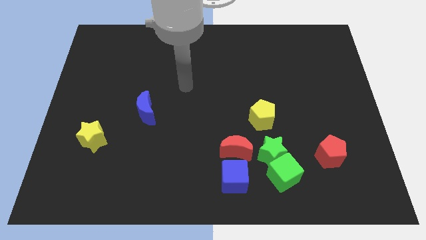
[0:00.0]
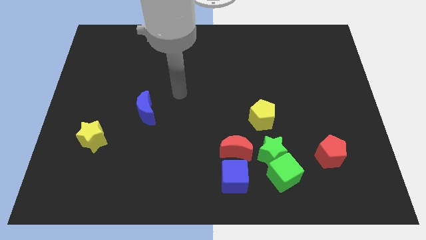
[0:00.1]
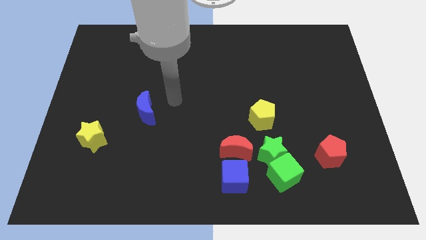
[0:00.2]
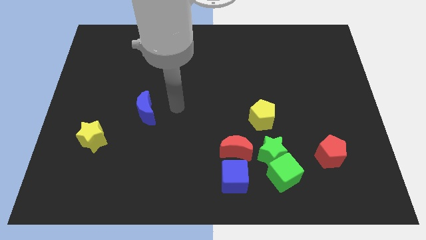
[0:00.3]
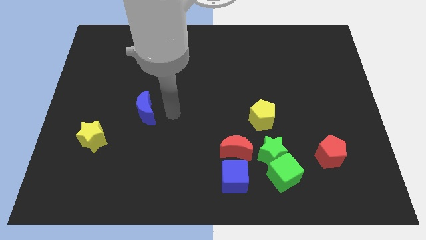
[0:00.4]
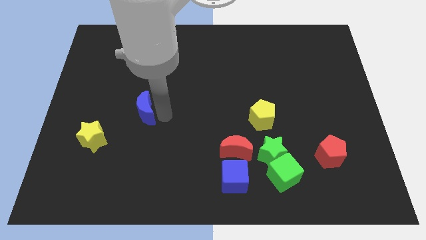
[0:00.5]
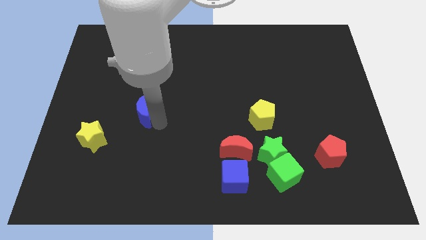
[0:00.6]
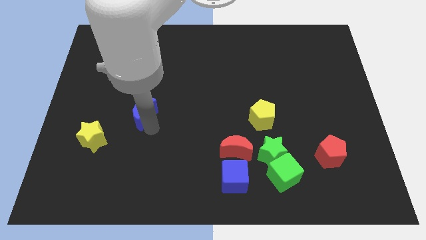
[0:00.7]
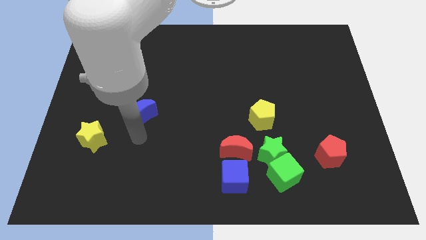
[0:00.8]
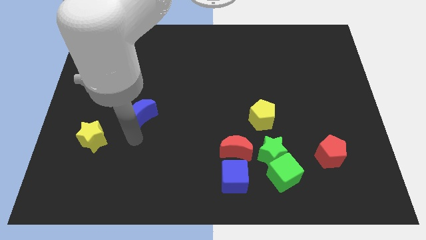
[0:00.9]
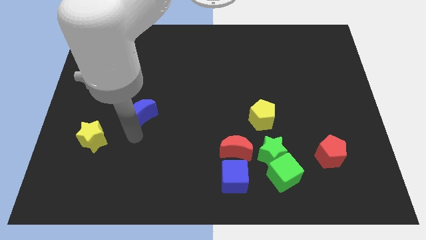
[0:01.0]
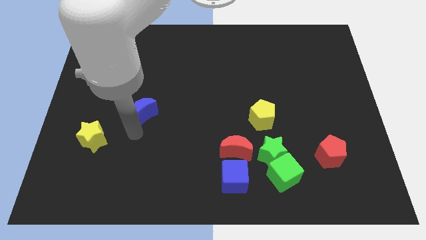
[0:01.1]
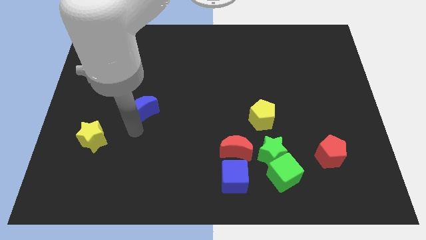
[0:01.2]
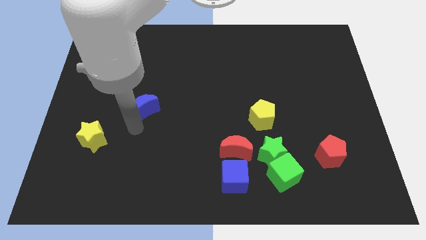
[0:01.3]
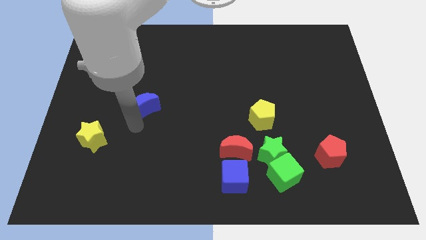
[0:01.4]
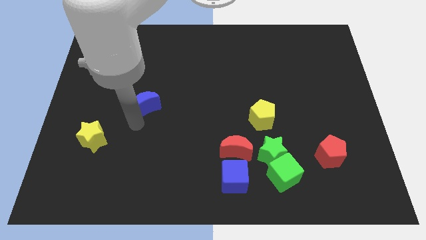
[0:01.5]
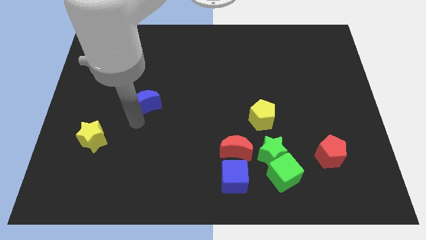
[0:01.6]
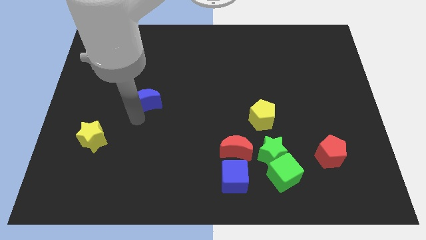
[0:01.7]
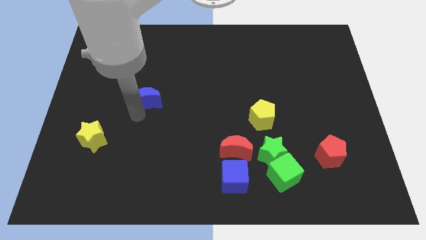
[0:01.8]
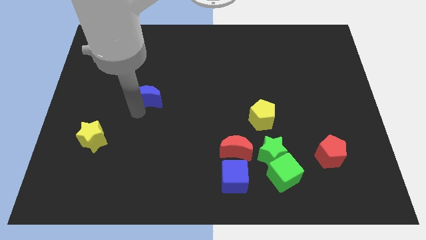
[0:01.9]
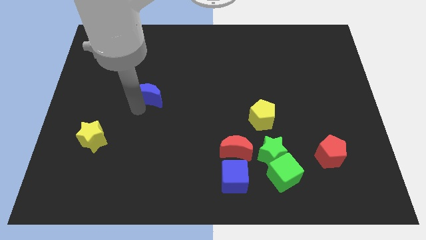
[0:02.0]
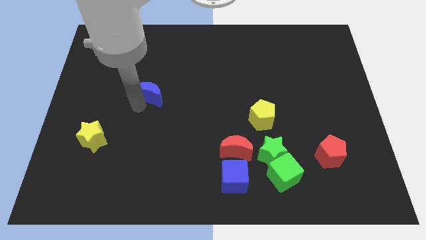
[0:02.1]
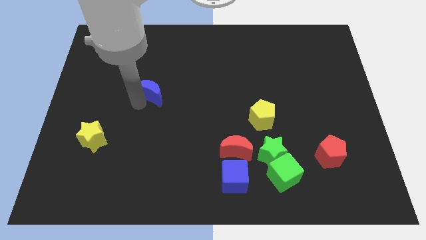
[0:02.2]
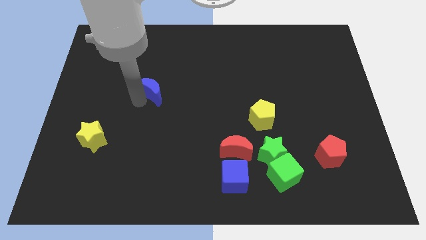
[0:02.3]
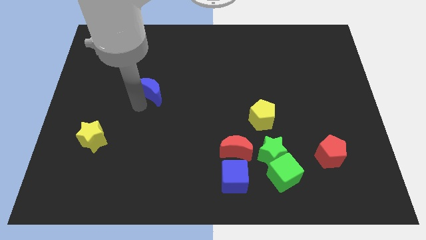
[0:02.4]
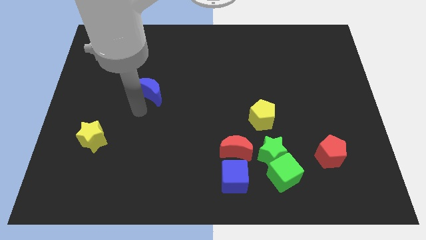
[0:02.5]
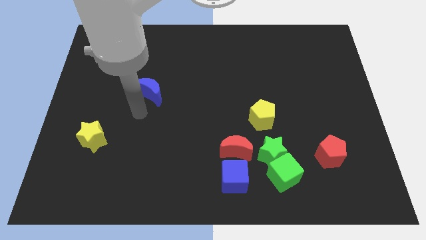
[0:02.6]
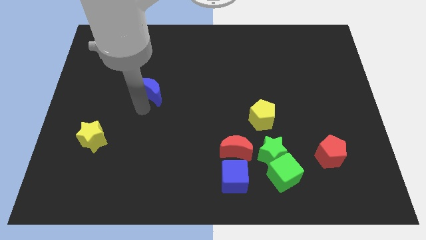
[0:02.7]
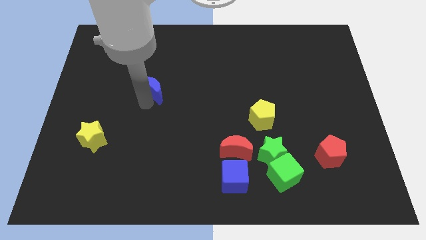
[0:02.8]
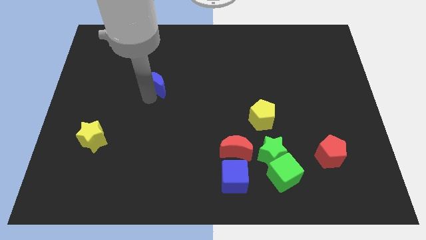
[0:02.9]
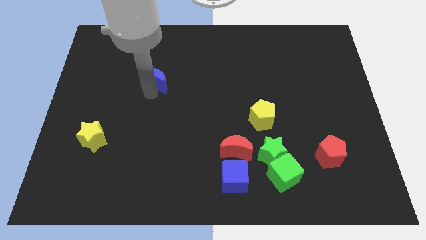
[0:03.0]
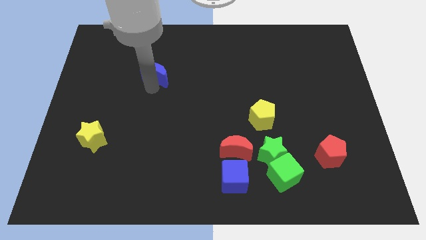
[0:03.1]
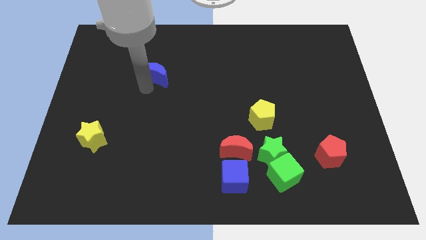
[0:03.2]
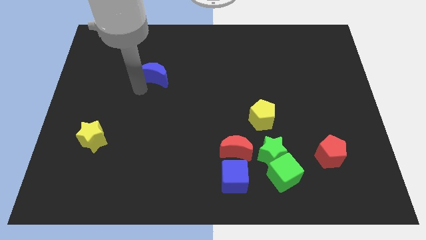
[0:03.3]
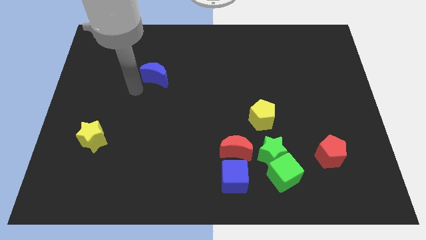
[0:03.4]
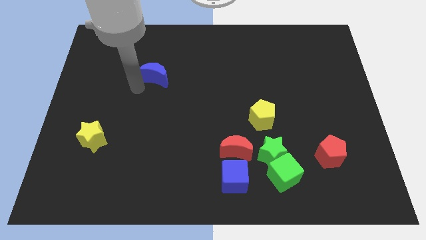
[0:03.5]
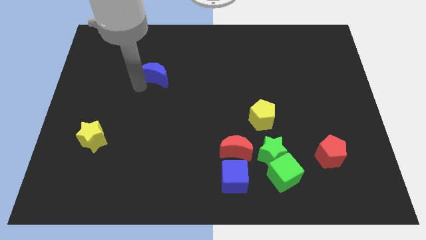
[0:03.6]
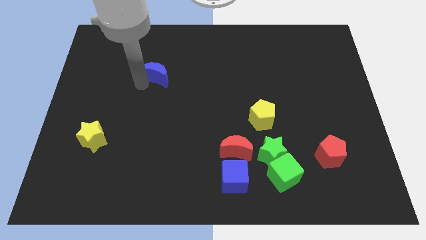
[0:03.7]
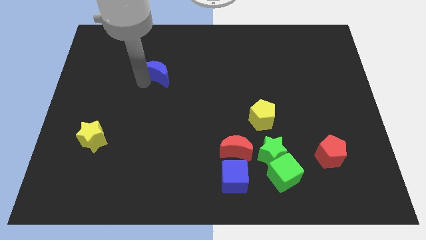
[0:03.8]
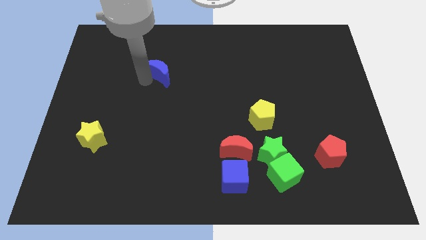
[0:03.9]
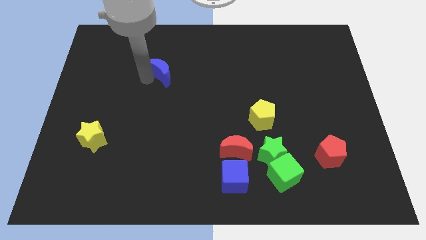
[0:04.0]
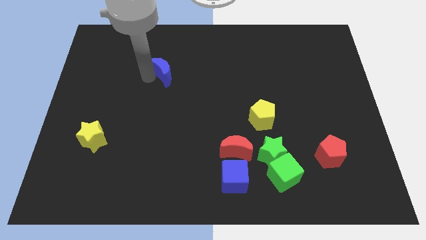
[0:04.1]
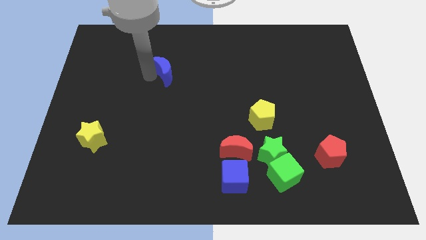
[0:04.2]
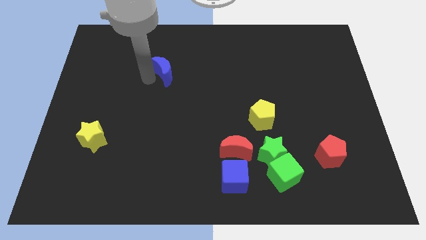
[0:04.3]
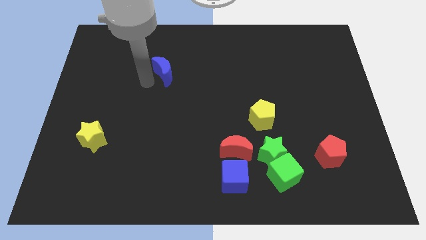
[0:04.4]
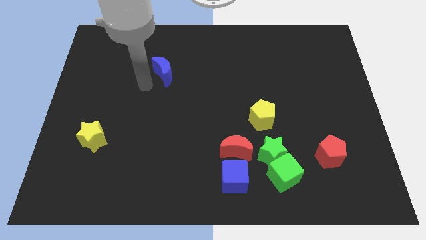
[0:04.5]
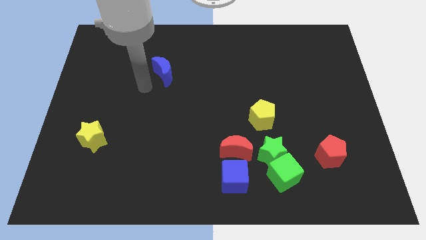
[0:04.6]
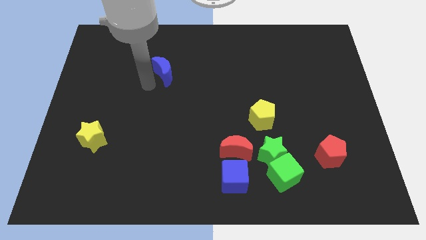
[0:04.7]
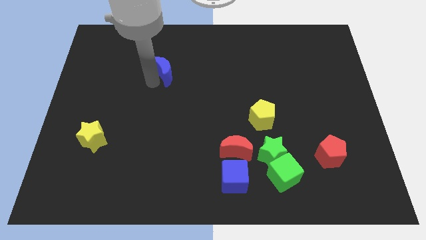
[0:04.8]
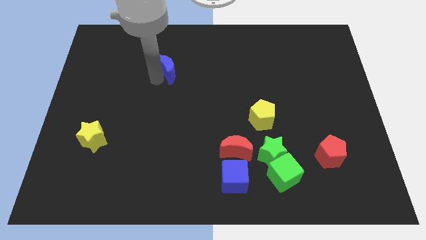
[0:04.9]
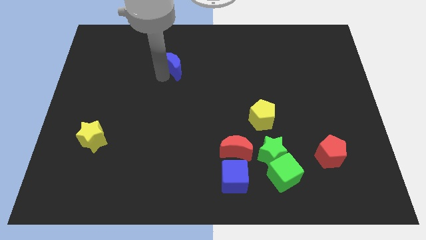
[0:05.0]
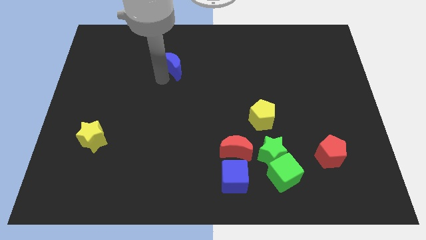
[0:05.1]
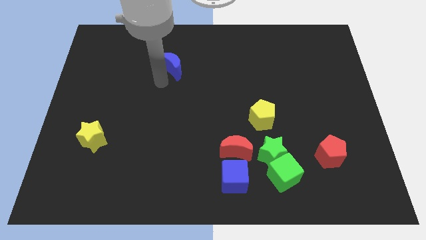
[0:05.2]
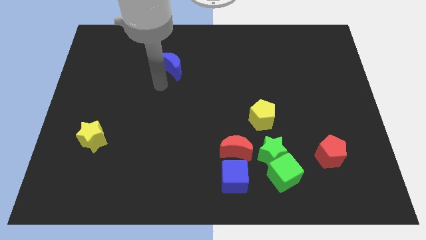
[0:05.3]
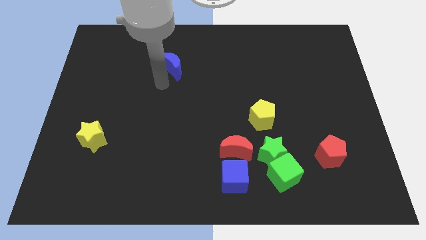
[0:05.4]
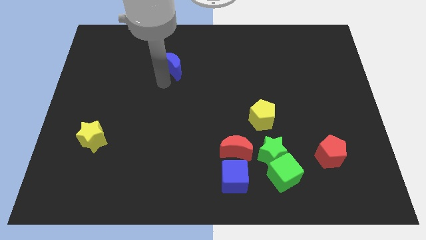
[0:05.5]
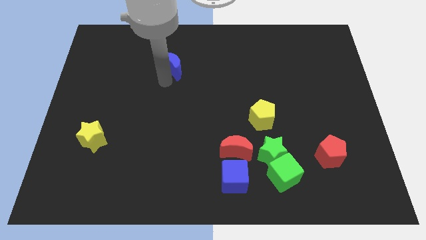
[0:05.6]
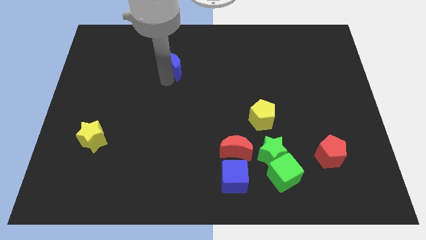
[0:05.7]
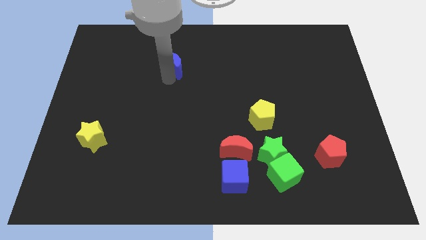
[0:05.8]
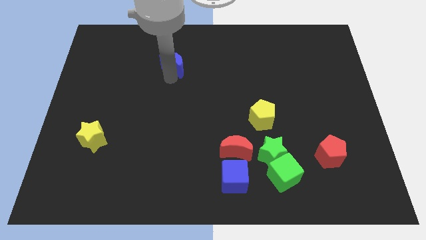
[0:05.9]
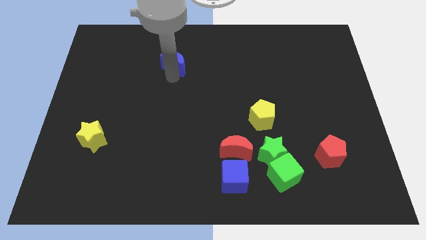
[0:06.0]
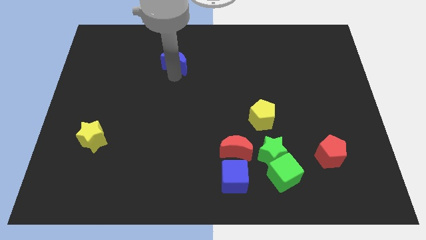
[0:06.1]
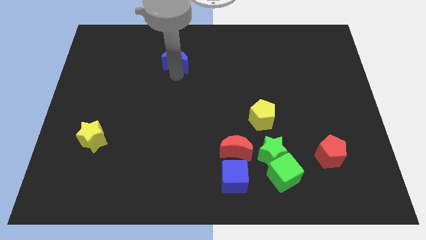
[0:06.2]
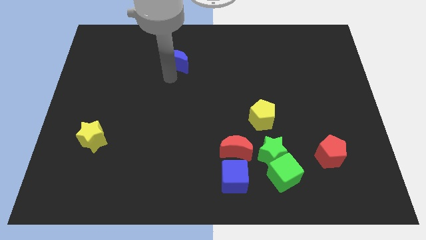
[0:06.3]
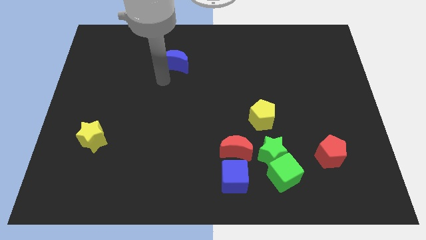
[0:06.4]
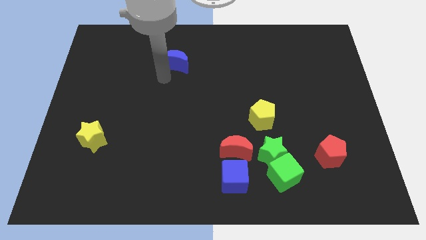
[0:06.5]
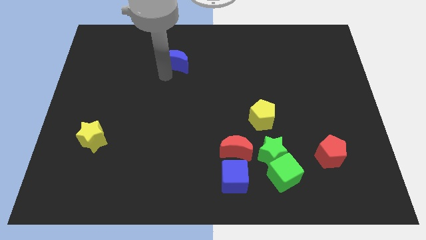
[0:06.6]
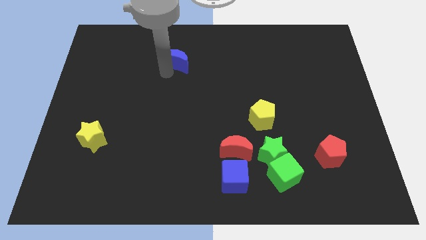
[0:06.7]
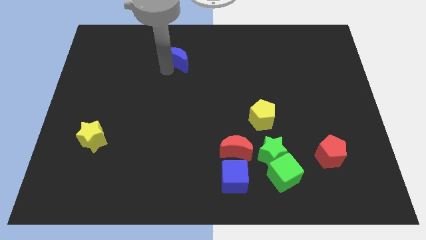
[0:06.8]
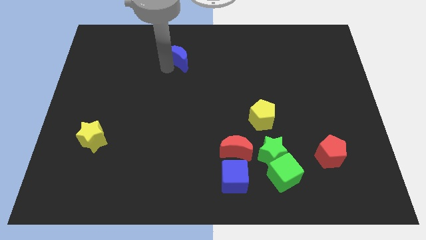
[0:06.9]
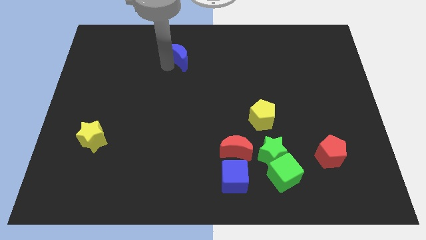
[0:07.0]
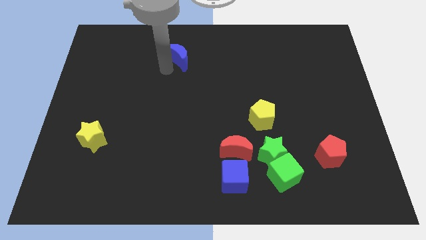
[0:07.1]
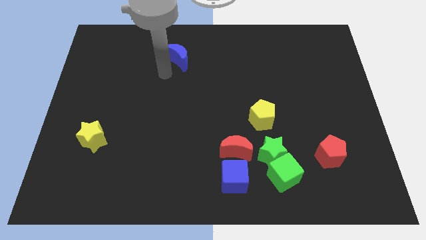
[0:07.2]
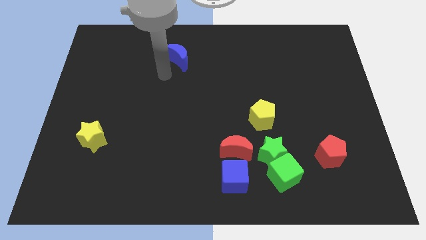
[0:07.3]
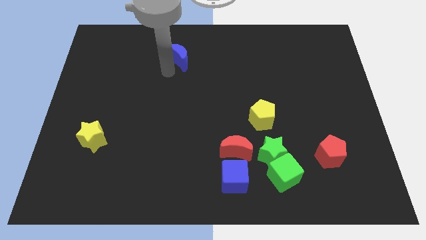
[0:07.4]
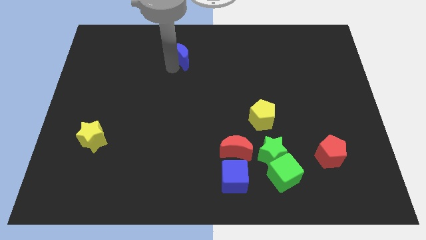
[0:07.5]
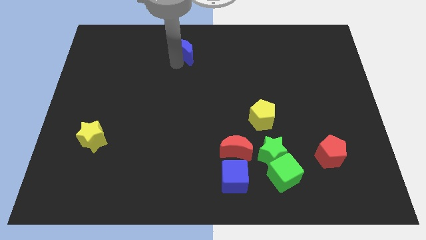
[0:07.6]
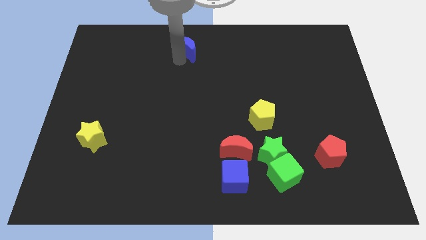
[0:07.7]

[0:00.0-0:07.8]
put the blue moon to the top side
